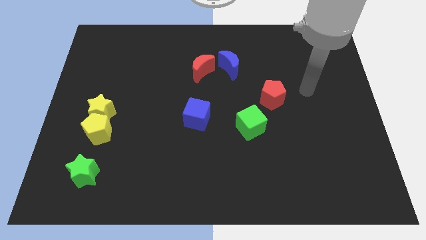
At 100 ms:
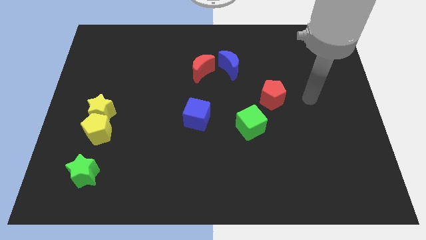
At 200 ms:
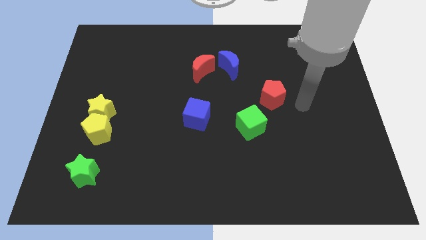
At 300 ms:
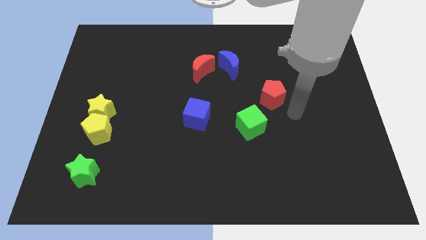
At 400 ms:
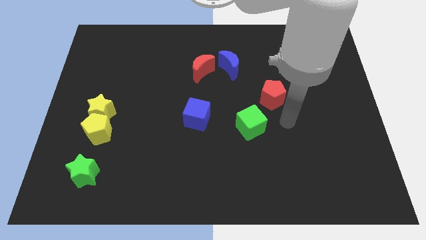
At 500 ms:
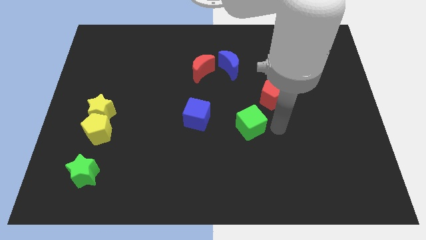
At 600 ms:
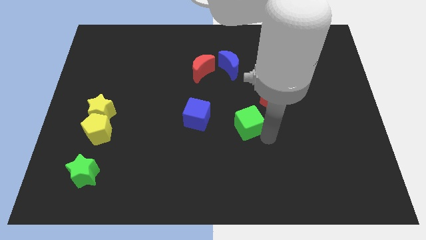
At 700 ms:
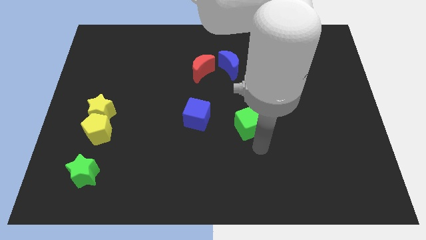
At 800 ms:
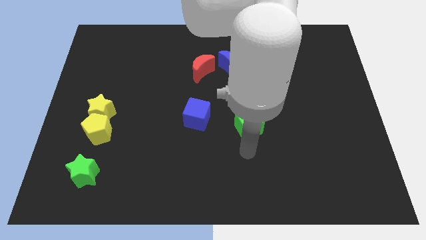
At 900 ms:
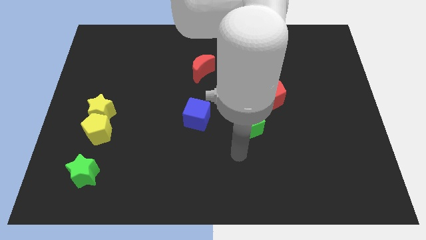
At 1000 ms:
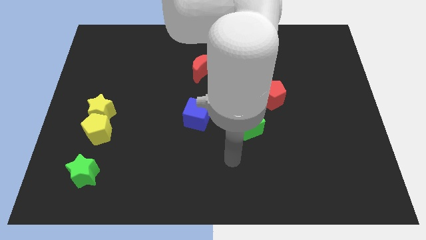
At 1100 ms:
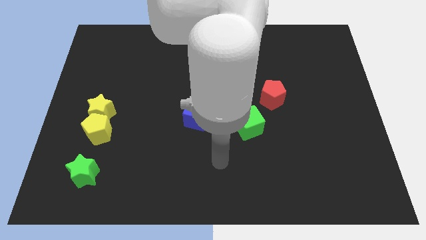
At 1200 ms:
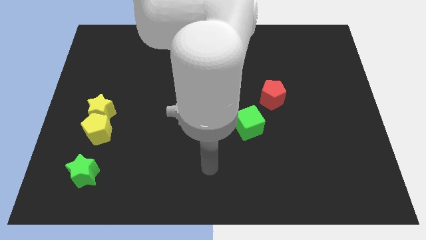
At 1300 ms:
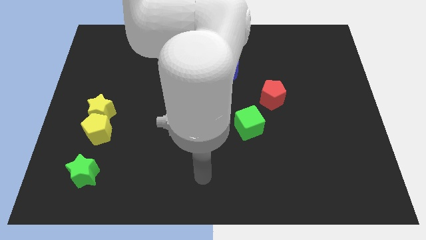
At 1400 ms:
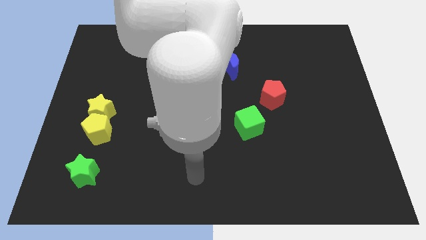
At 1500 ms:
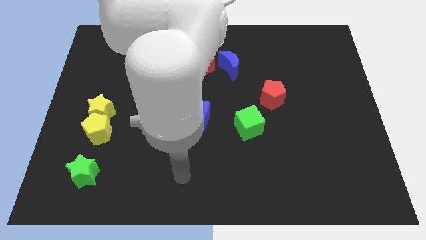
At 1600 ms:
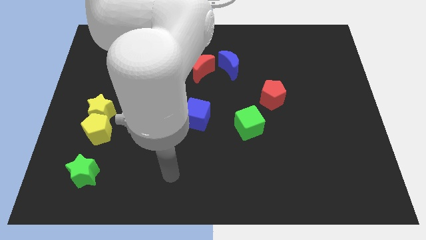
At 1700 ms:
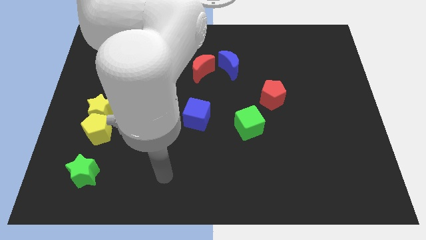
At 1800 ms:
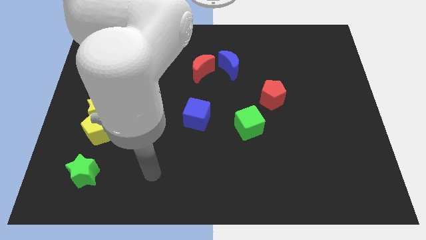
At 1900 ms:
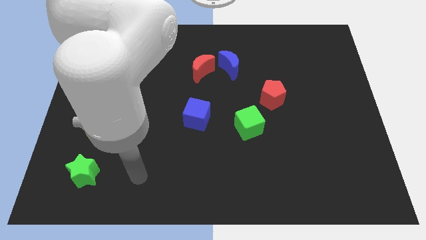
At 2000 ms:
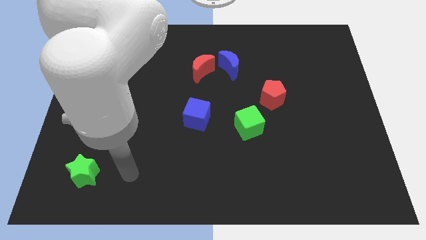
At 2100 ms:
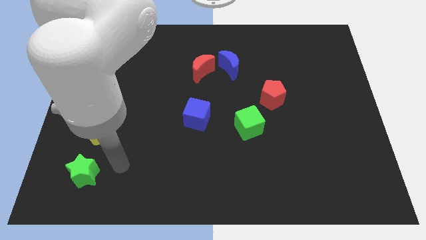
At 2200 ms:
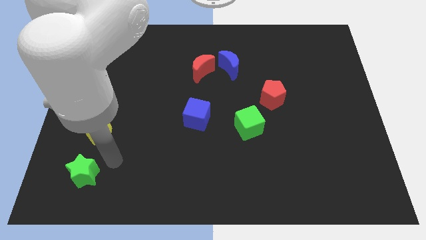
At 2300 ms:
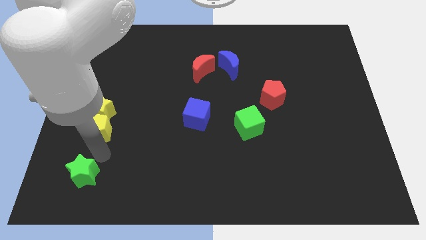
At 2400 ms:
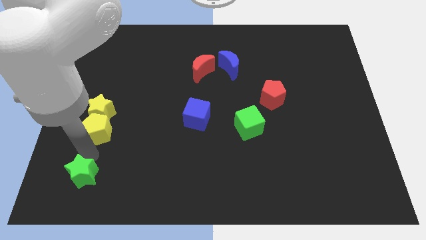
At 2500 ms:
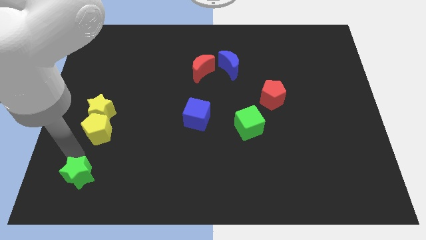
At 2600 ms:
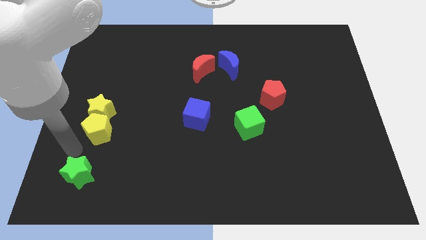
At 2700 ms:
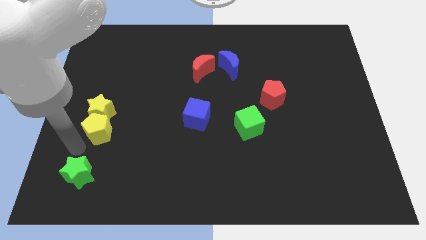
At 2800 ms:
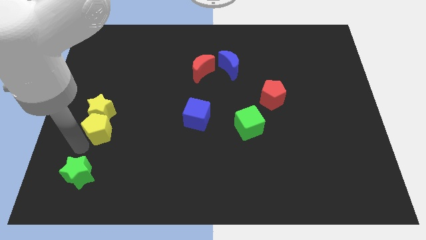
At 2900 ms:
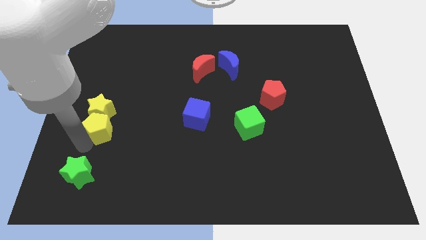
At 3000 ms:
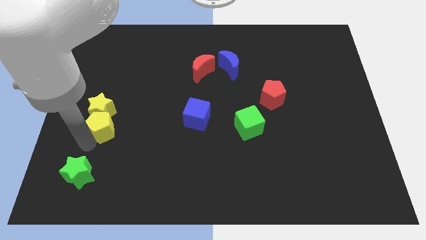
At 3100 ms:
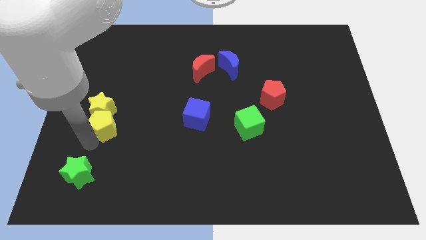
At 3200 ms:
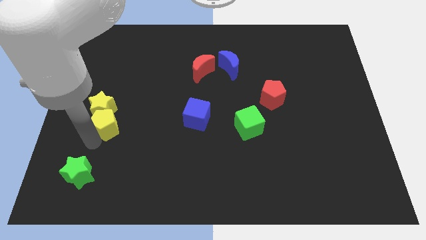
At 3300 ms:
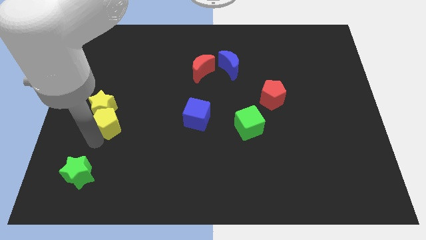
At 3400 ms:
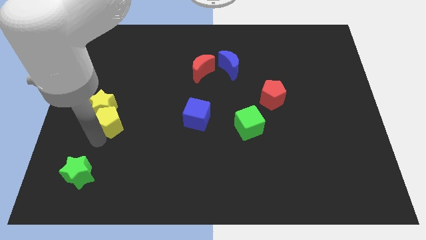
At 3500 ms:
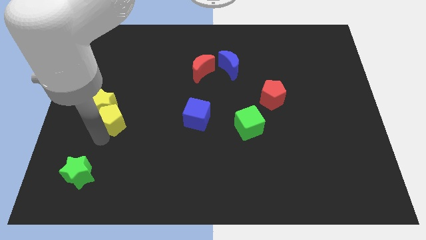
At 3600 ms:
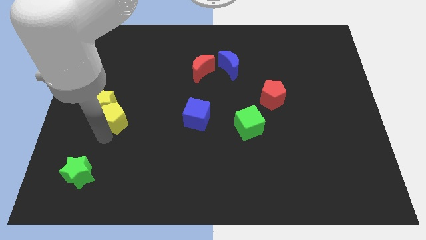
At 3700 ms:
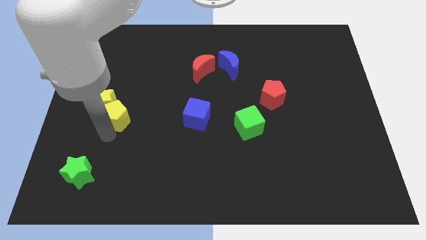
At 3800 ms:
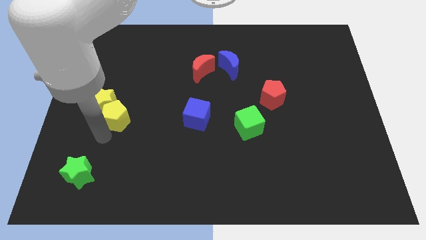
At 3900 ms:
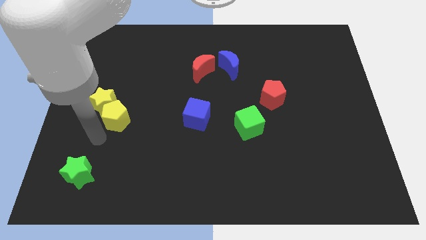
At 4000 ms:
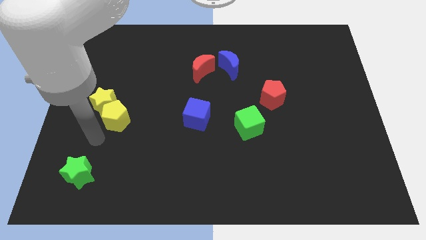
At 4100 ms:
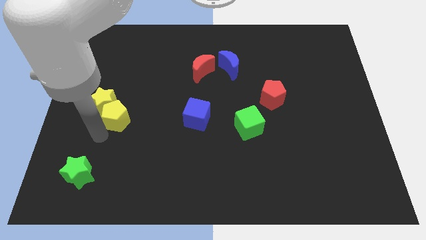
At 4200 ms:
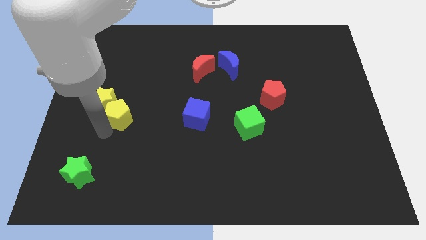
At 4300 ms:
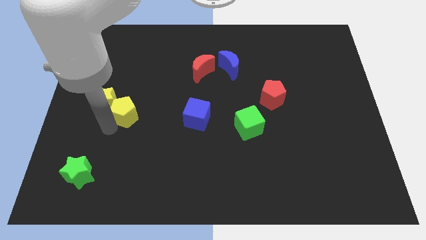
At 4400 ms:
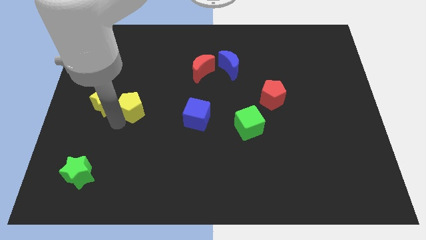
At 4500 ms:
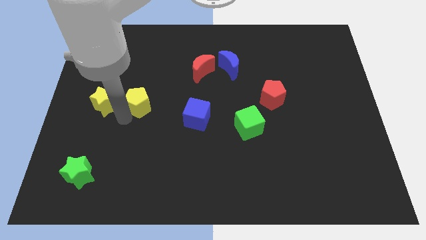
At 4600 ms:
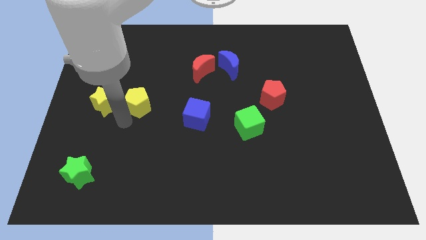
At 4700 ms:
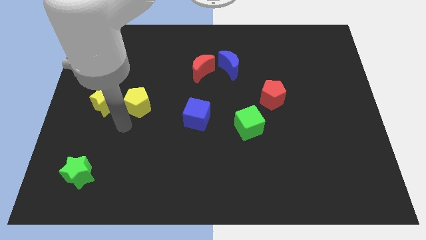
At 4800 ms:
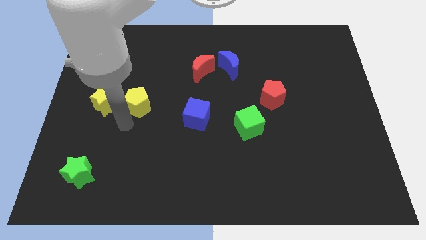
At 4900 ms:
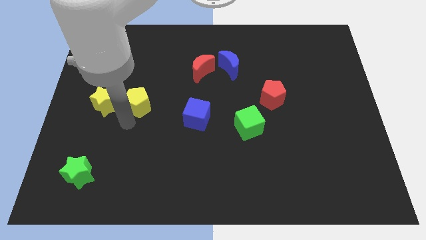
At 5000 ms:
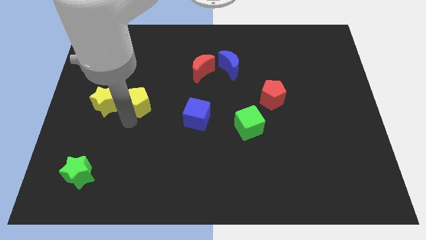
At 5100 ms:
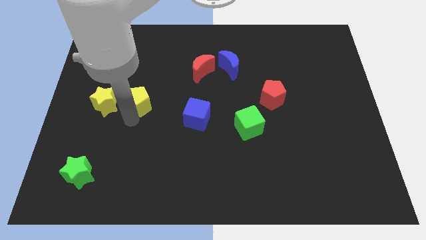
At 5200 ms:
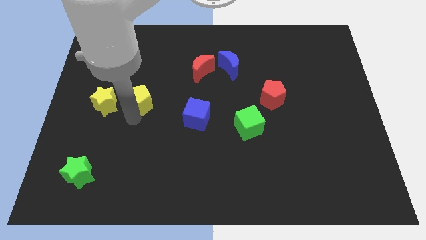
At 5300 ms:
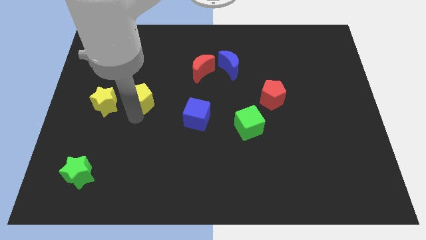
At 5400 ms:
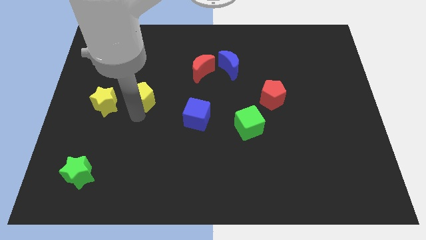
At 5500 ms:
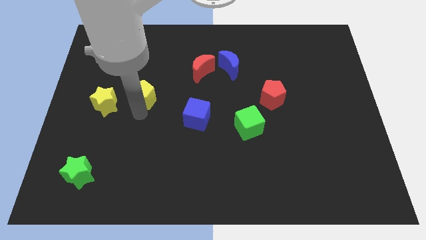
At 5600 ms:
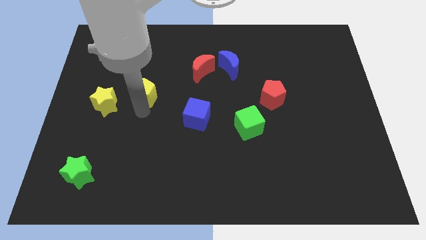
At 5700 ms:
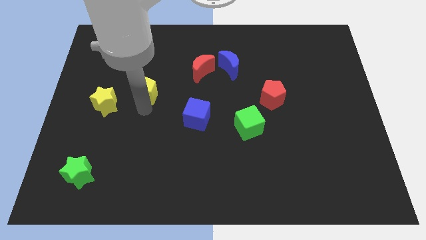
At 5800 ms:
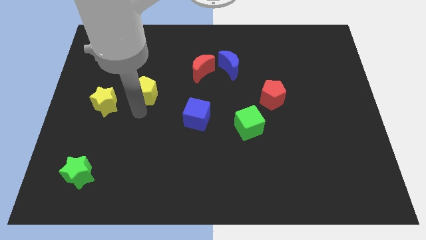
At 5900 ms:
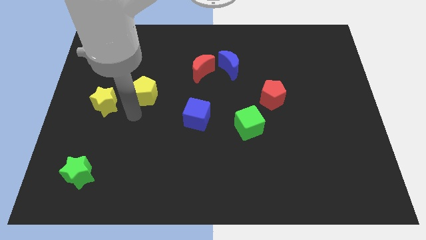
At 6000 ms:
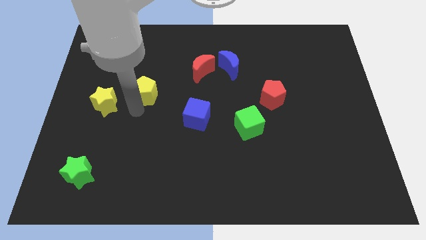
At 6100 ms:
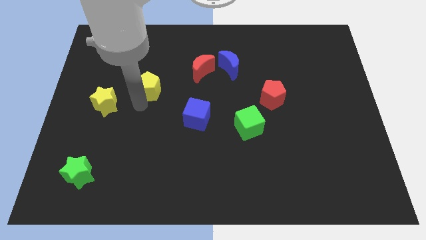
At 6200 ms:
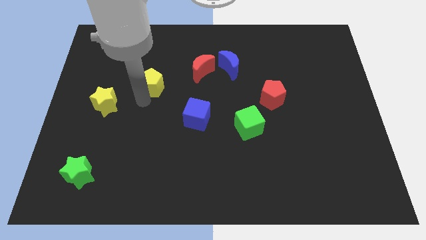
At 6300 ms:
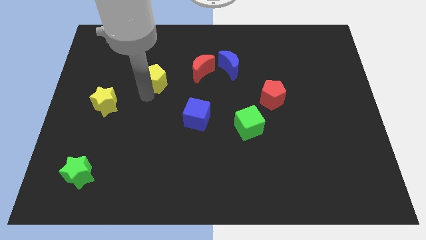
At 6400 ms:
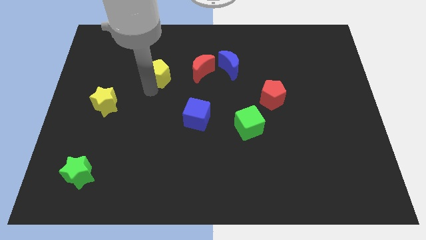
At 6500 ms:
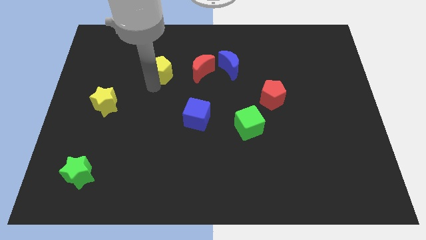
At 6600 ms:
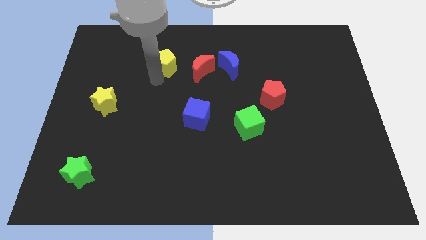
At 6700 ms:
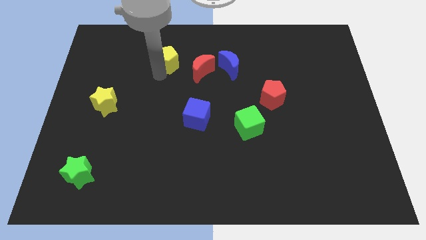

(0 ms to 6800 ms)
slide the yellow pentagon diagonally up and to the left of the red moon
